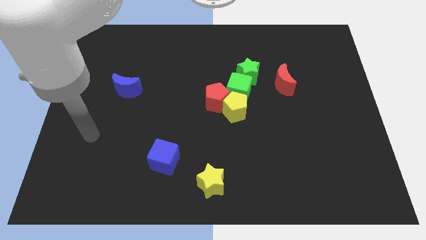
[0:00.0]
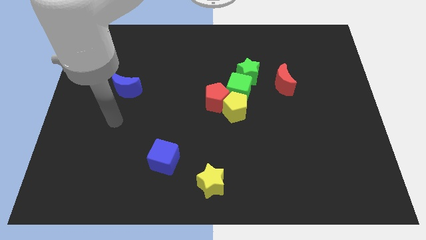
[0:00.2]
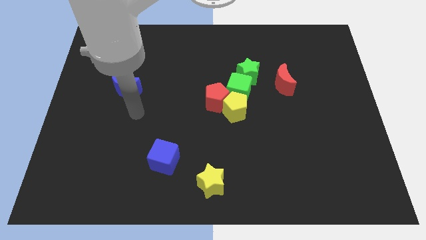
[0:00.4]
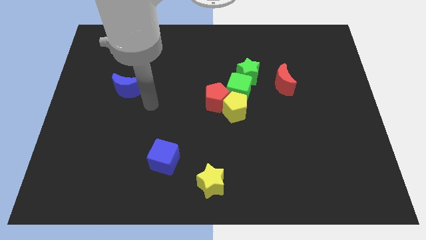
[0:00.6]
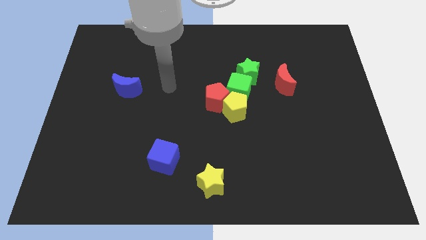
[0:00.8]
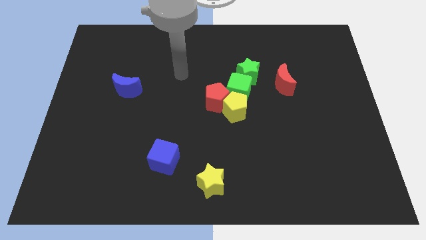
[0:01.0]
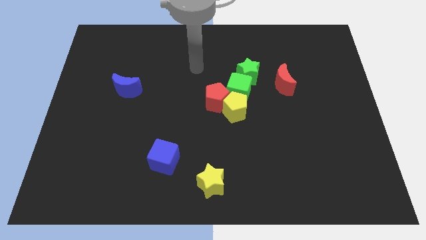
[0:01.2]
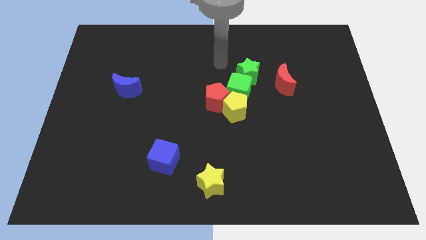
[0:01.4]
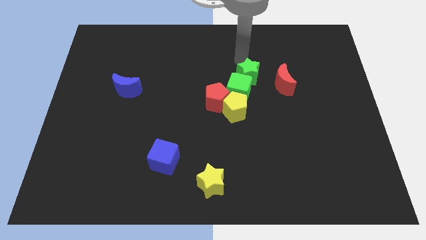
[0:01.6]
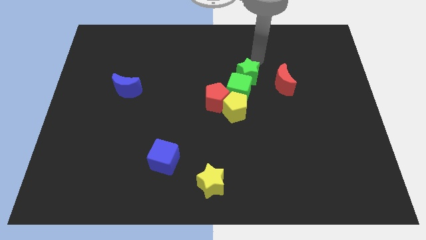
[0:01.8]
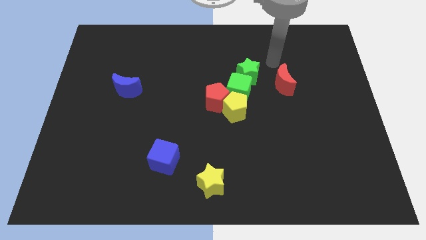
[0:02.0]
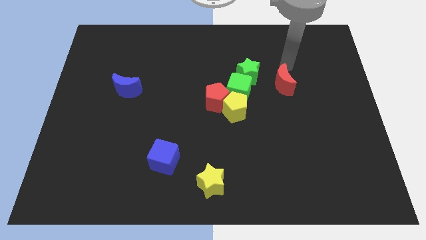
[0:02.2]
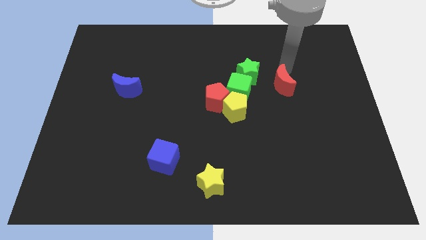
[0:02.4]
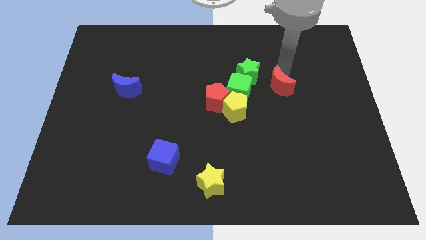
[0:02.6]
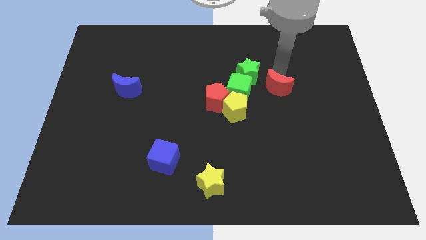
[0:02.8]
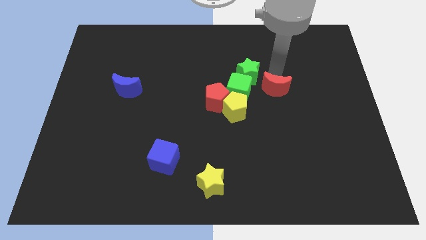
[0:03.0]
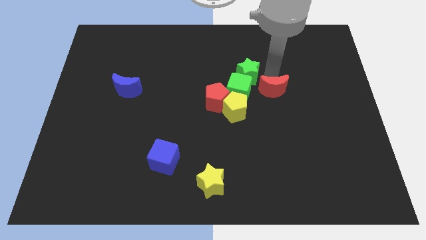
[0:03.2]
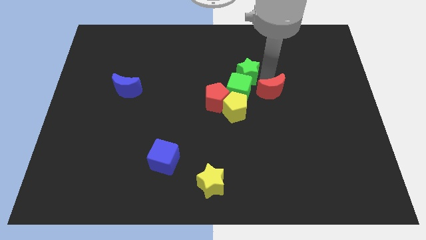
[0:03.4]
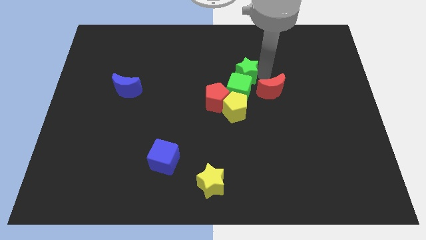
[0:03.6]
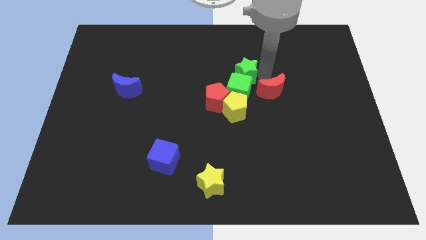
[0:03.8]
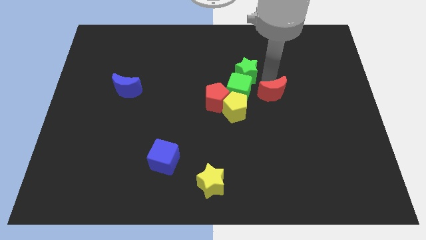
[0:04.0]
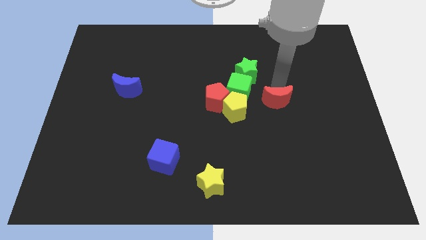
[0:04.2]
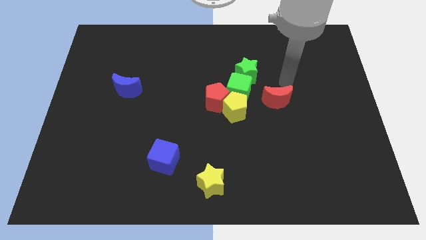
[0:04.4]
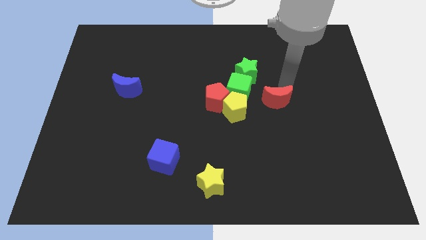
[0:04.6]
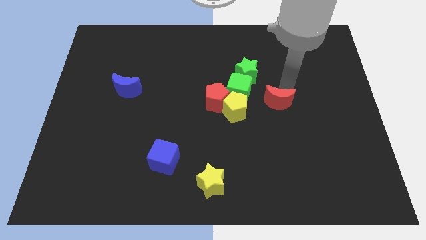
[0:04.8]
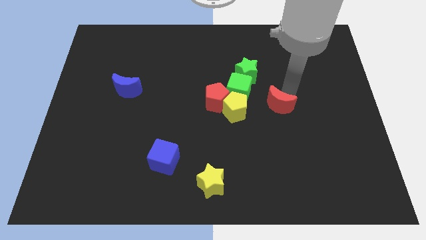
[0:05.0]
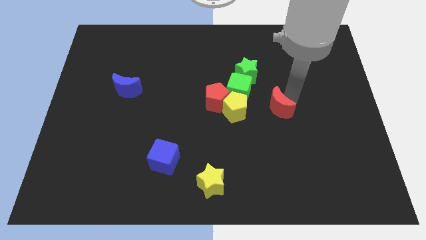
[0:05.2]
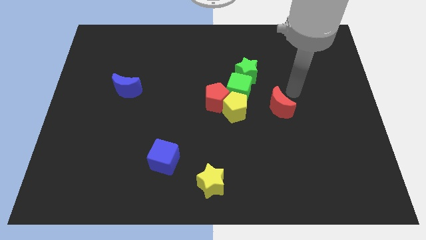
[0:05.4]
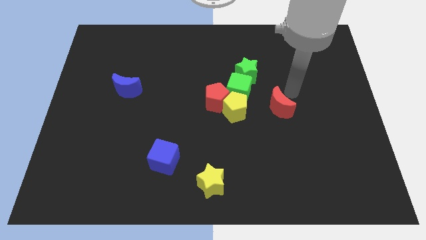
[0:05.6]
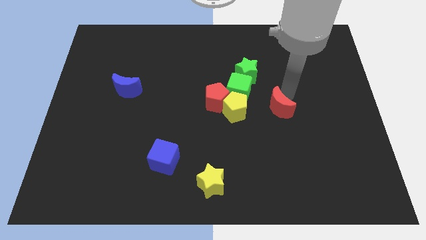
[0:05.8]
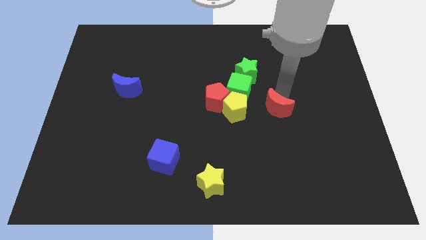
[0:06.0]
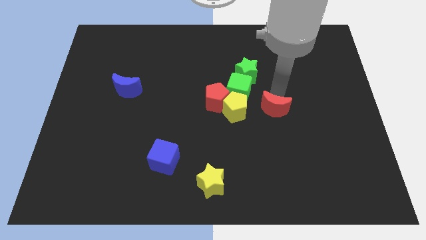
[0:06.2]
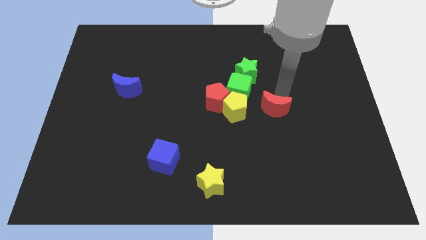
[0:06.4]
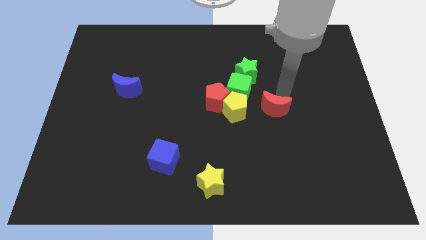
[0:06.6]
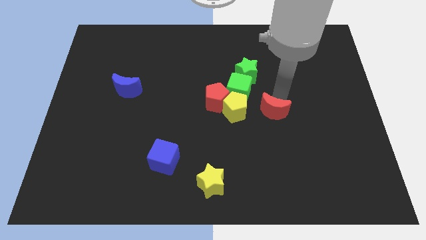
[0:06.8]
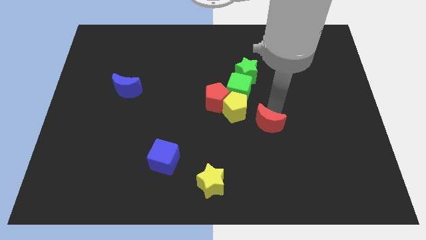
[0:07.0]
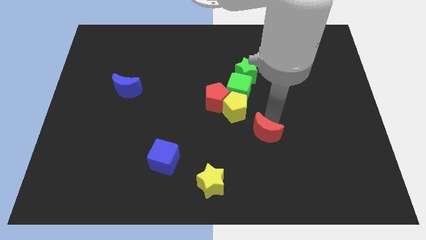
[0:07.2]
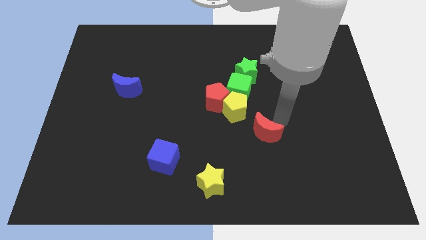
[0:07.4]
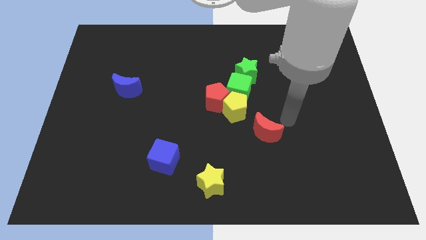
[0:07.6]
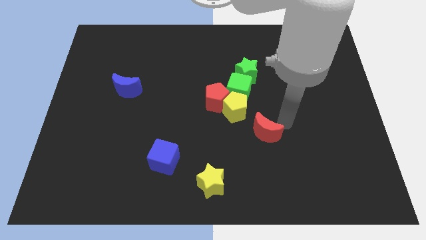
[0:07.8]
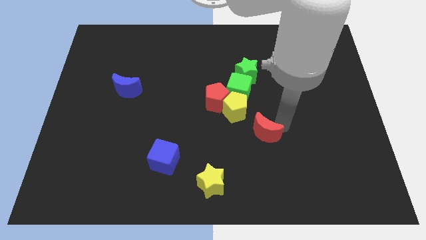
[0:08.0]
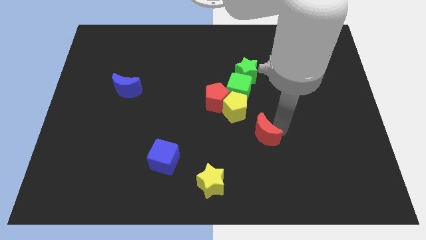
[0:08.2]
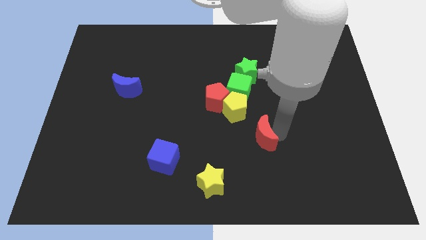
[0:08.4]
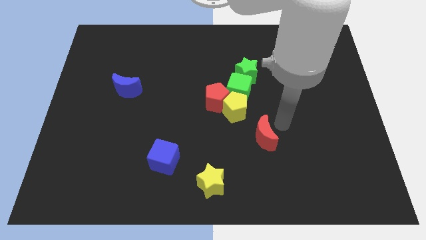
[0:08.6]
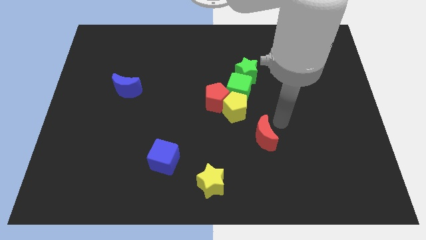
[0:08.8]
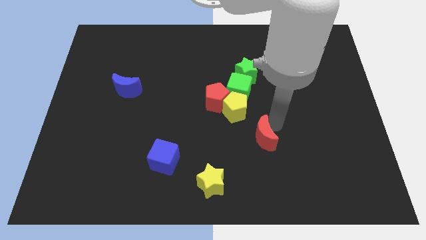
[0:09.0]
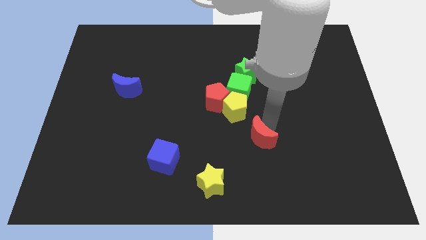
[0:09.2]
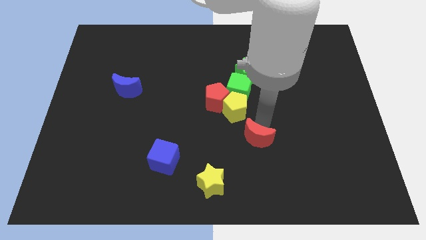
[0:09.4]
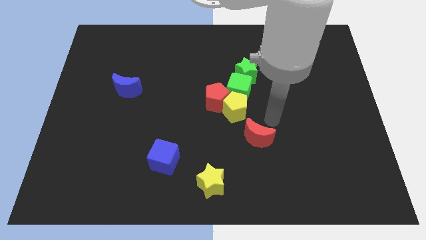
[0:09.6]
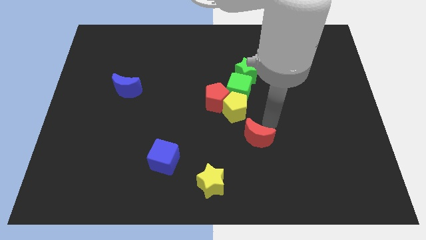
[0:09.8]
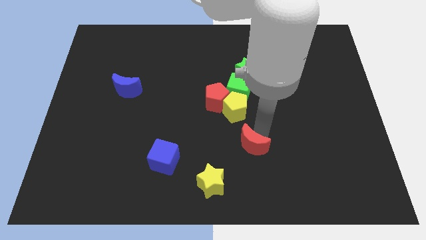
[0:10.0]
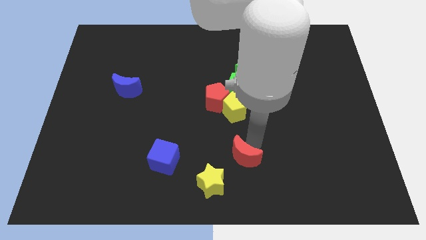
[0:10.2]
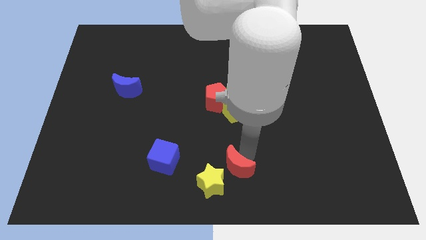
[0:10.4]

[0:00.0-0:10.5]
push the red moon towards the yellow star
